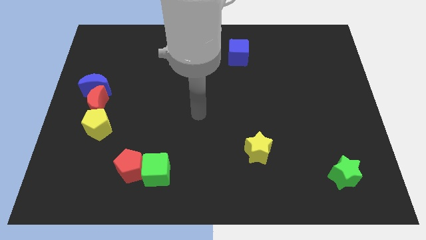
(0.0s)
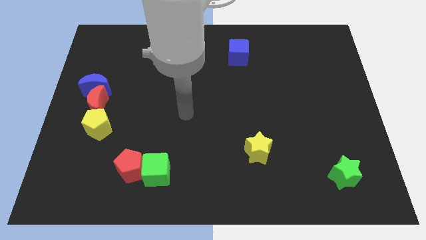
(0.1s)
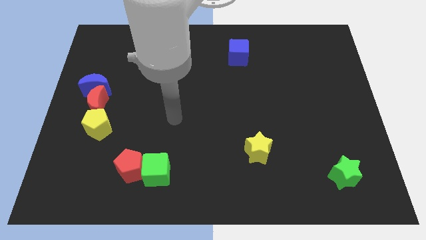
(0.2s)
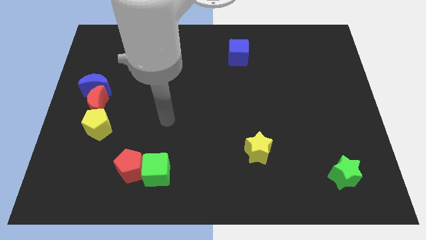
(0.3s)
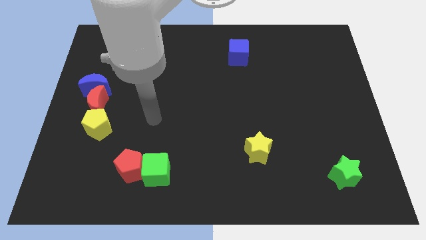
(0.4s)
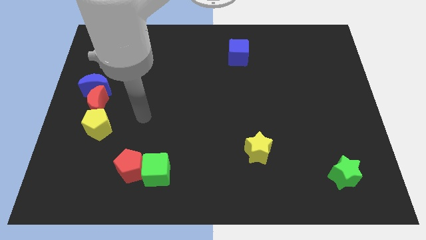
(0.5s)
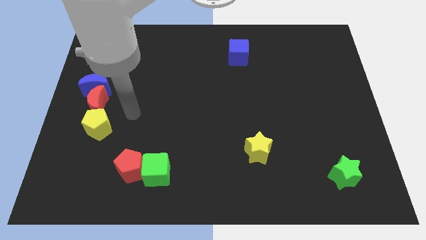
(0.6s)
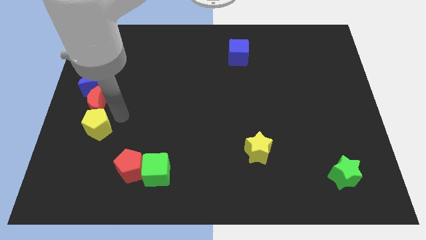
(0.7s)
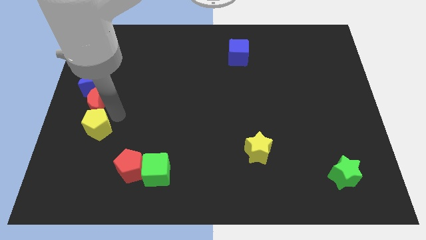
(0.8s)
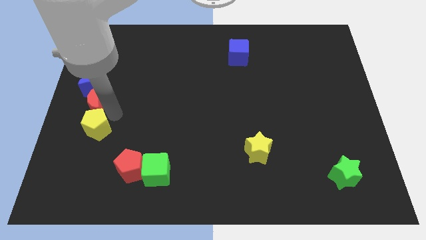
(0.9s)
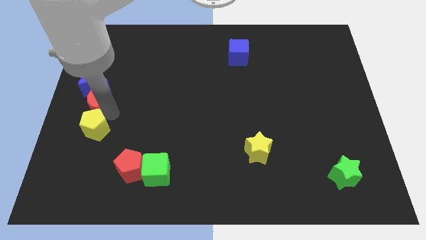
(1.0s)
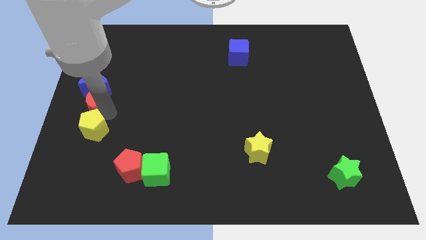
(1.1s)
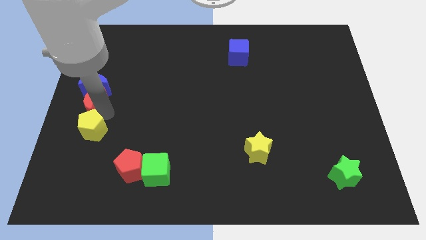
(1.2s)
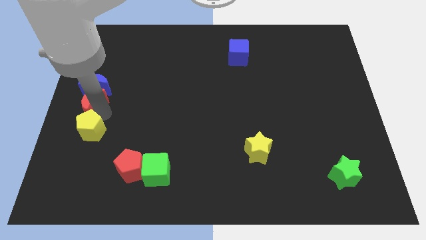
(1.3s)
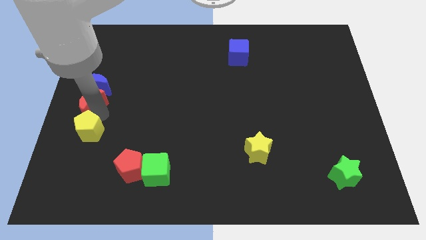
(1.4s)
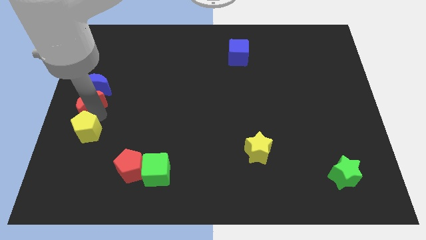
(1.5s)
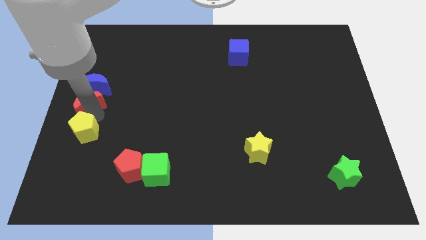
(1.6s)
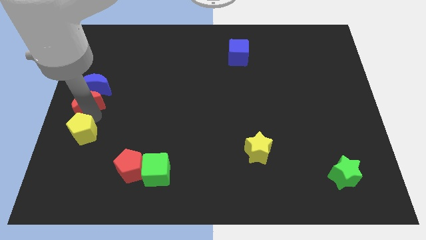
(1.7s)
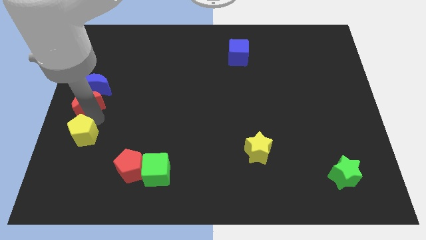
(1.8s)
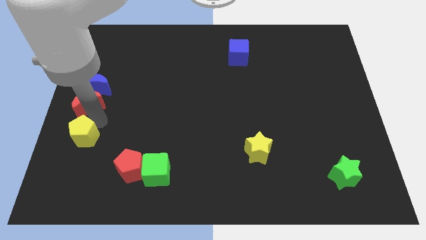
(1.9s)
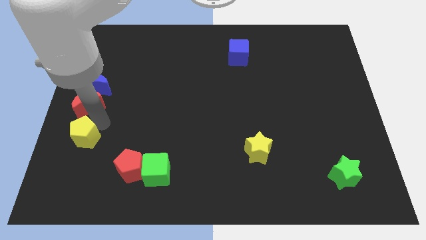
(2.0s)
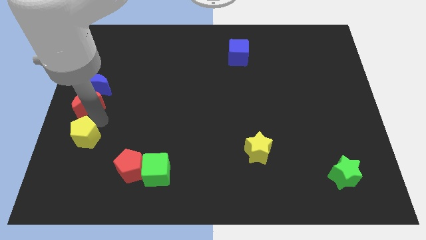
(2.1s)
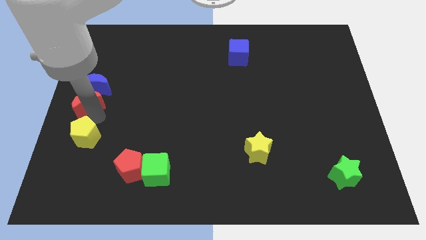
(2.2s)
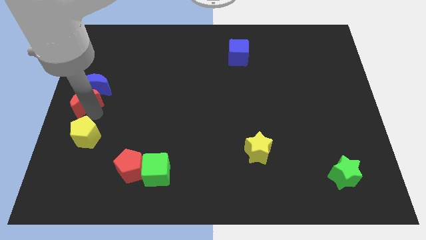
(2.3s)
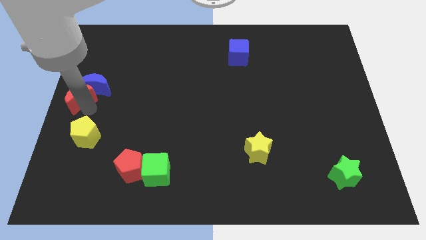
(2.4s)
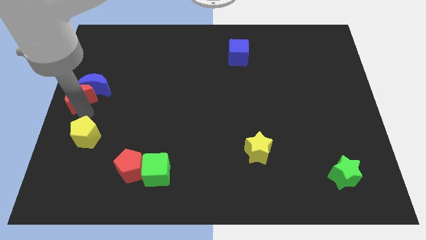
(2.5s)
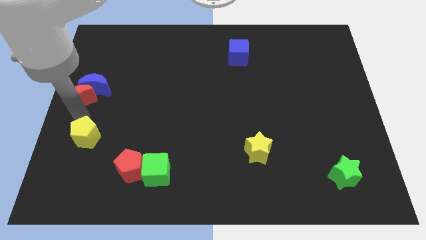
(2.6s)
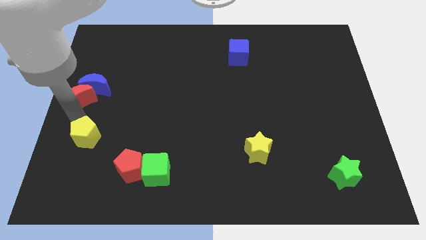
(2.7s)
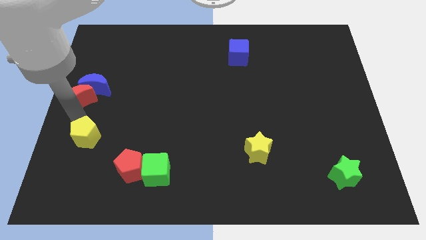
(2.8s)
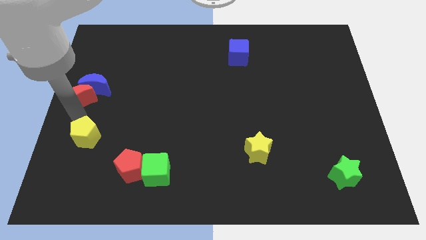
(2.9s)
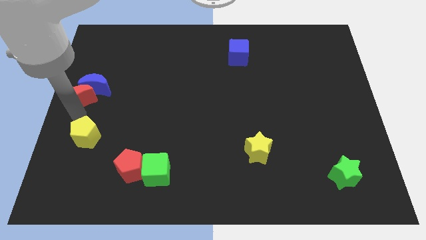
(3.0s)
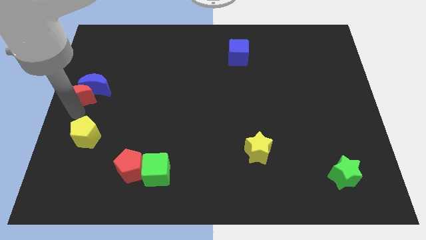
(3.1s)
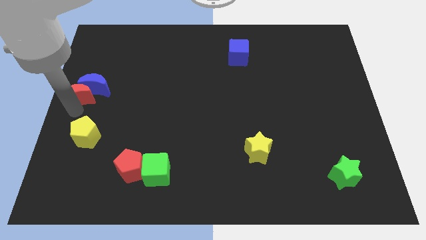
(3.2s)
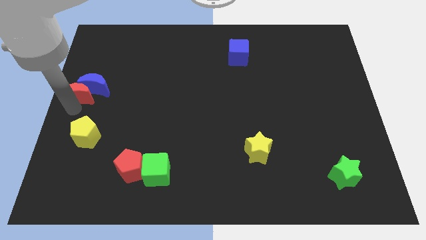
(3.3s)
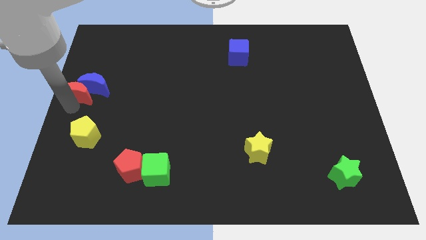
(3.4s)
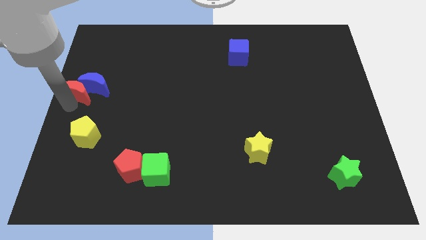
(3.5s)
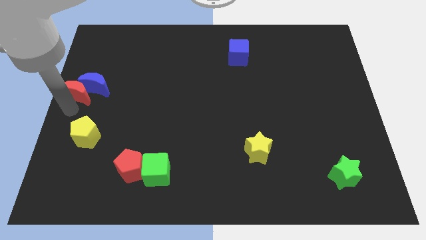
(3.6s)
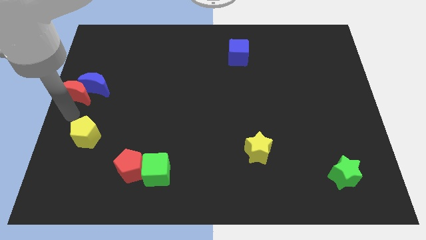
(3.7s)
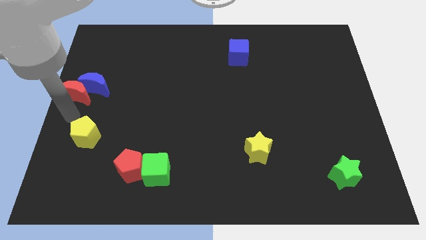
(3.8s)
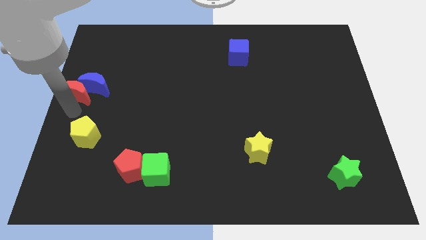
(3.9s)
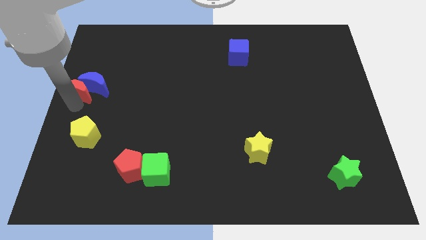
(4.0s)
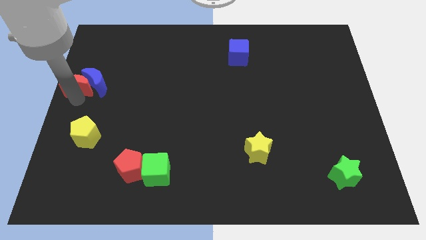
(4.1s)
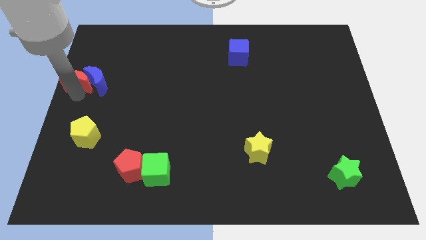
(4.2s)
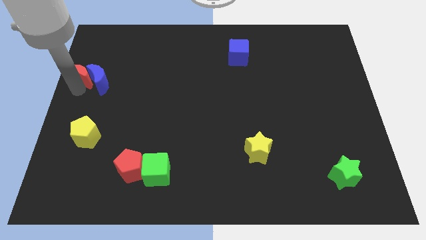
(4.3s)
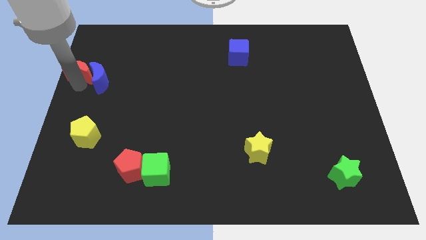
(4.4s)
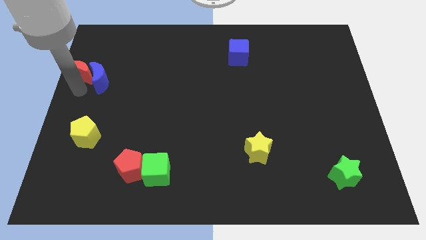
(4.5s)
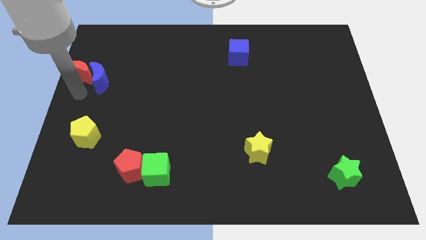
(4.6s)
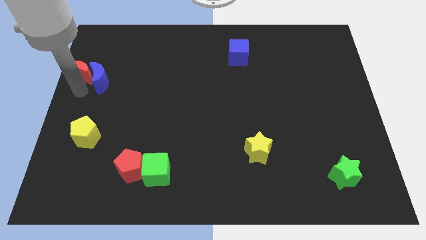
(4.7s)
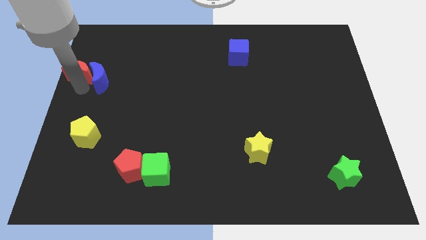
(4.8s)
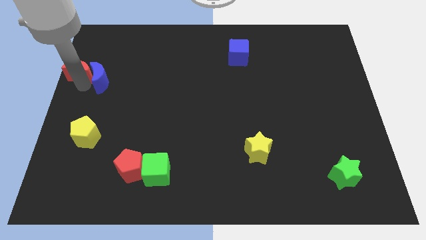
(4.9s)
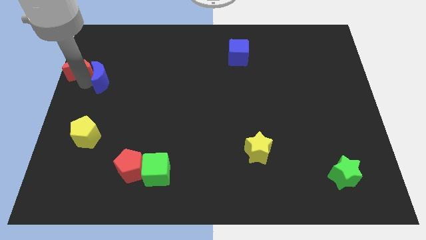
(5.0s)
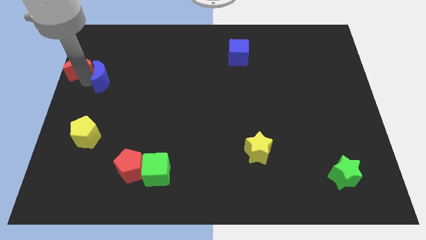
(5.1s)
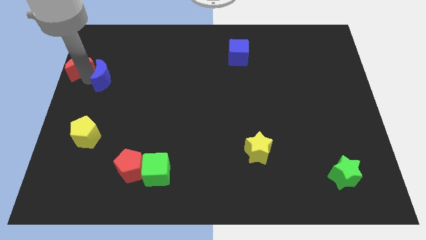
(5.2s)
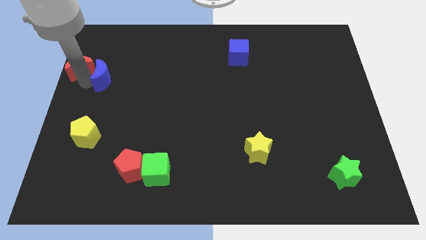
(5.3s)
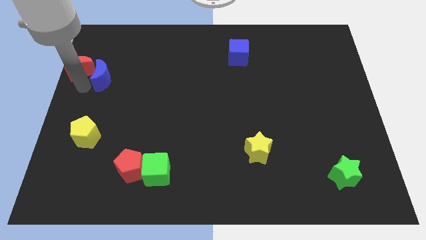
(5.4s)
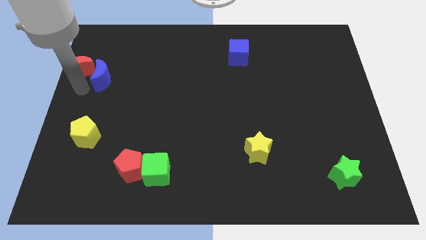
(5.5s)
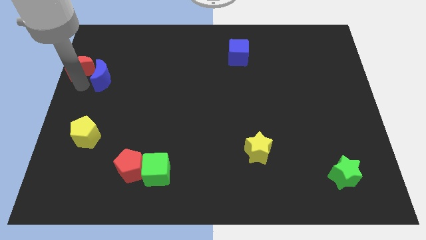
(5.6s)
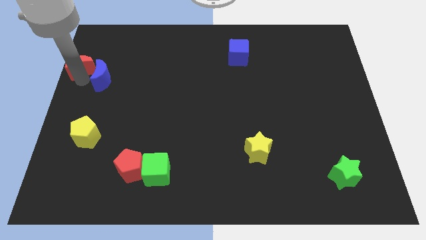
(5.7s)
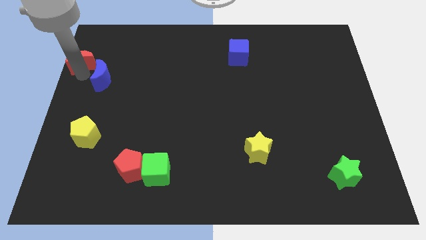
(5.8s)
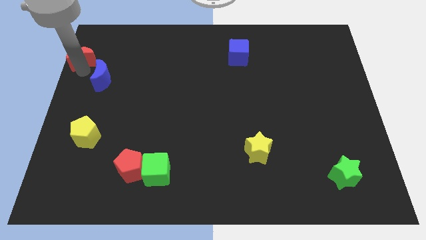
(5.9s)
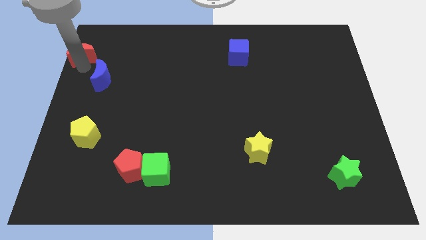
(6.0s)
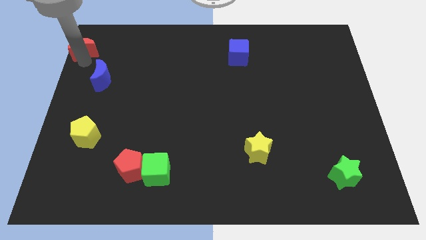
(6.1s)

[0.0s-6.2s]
move the red moon to the upper left corner
